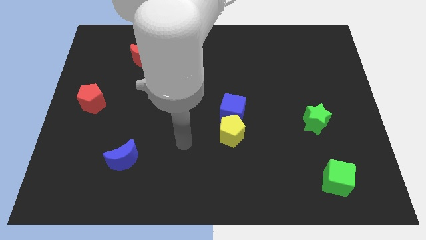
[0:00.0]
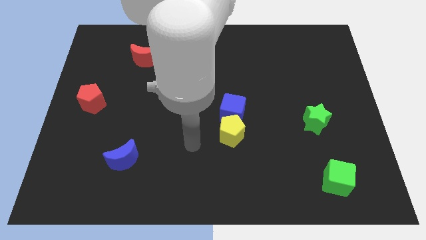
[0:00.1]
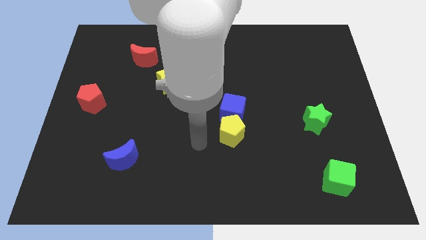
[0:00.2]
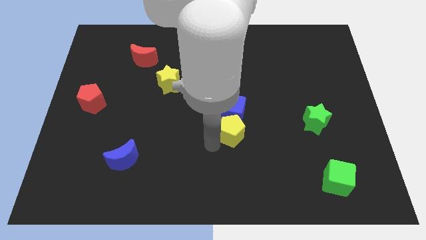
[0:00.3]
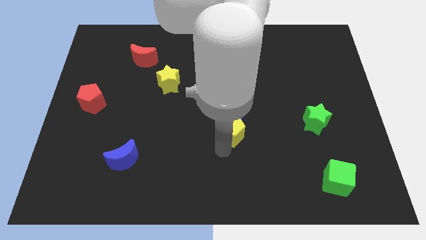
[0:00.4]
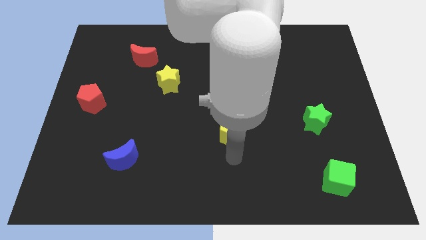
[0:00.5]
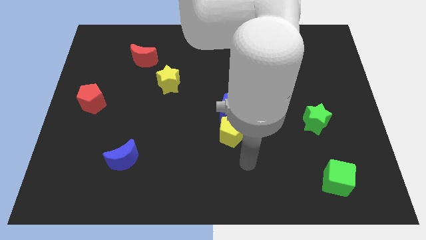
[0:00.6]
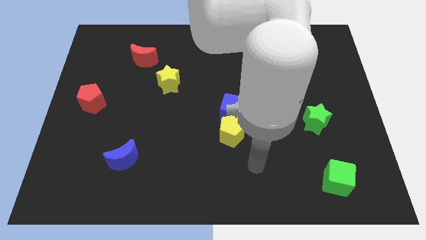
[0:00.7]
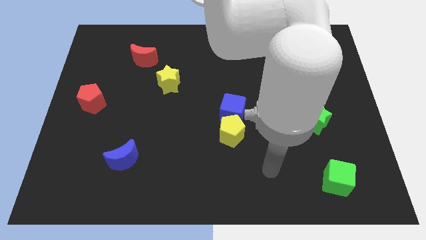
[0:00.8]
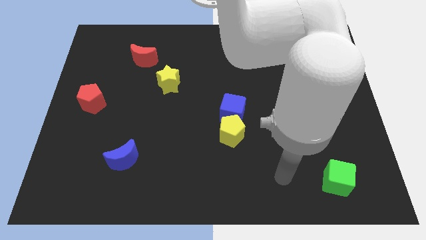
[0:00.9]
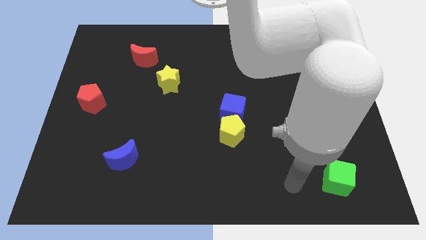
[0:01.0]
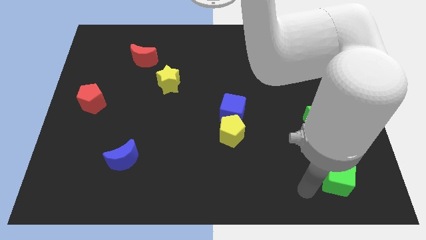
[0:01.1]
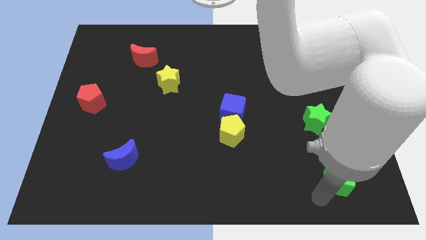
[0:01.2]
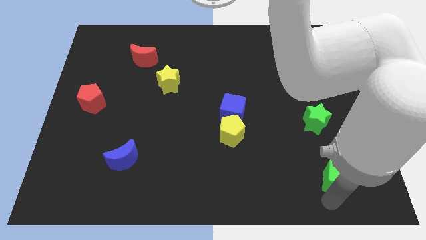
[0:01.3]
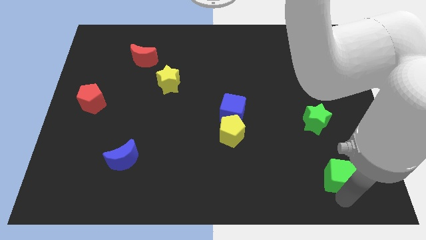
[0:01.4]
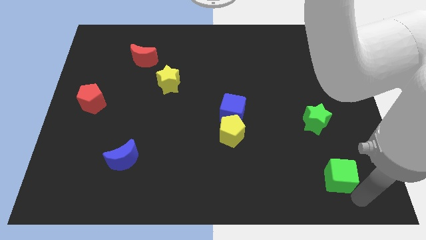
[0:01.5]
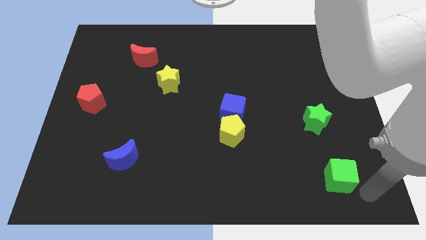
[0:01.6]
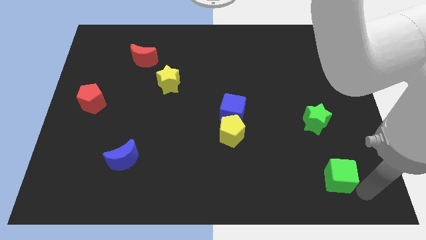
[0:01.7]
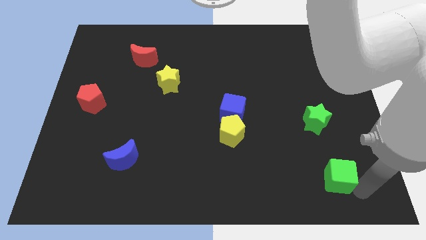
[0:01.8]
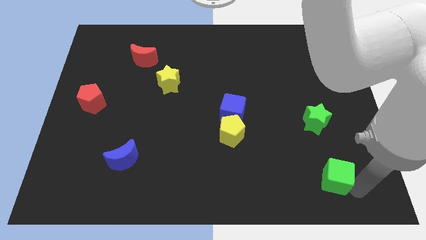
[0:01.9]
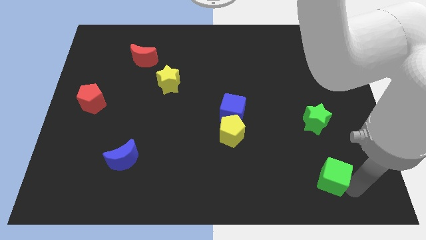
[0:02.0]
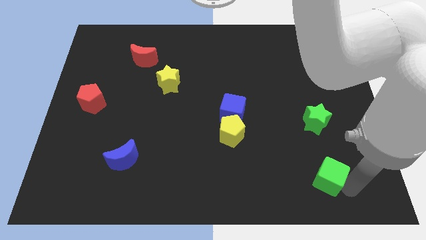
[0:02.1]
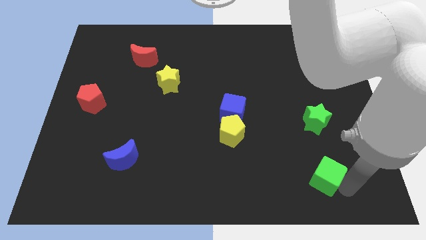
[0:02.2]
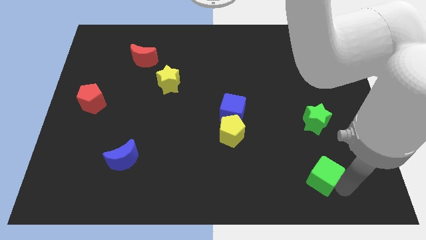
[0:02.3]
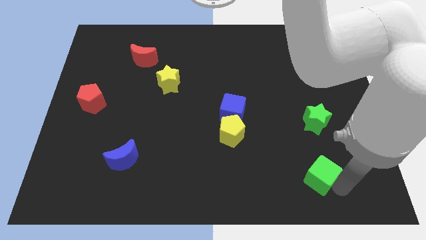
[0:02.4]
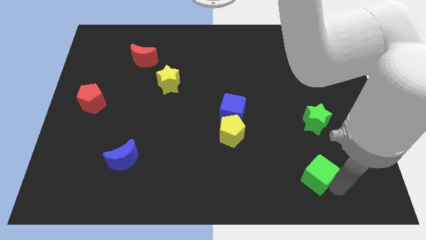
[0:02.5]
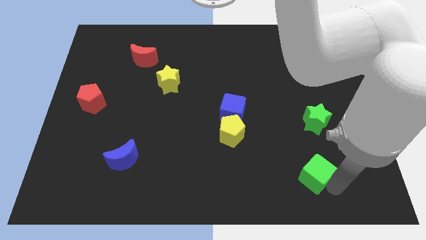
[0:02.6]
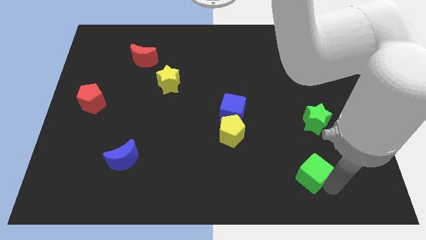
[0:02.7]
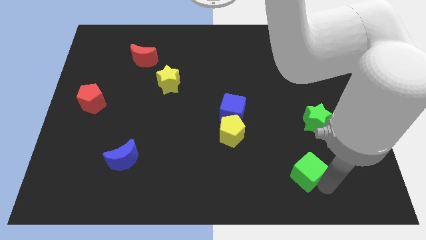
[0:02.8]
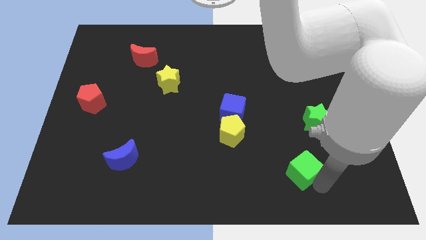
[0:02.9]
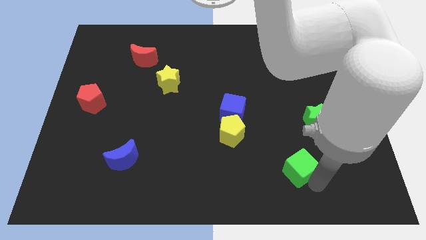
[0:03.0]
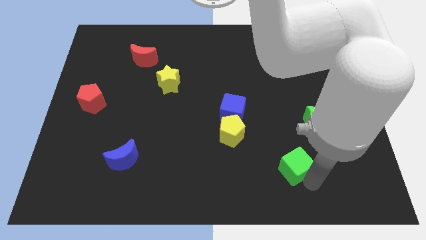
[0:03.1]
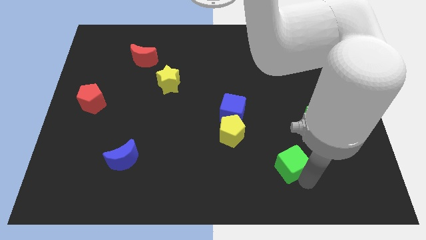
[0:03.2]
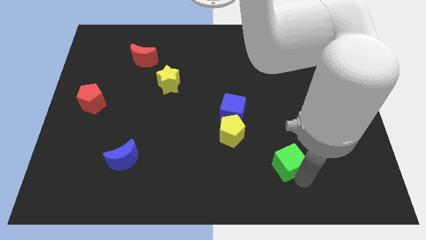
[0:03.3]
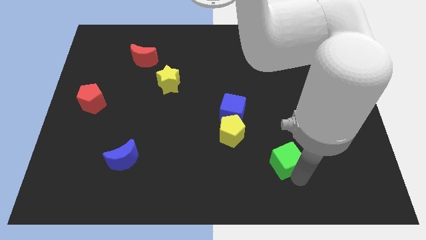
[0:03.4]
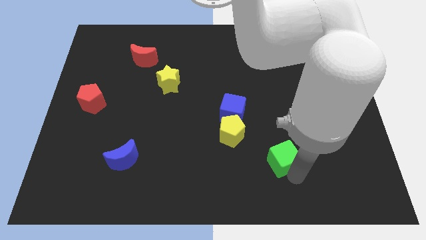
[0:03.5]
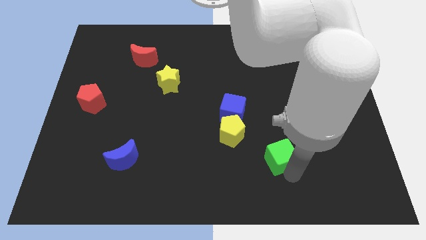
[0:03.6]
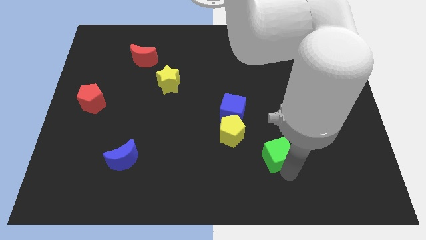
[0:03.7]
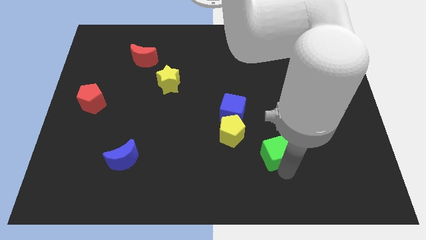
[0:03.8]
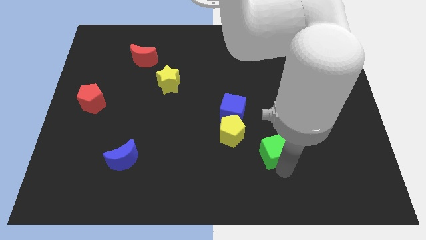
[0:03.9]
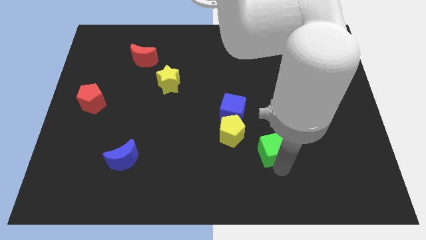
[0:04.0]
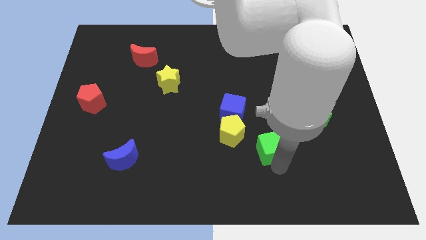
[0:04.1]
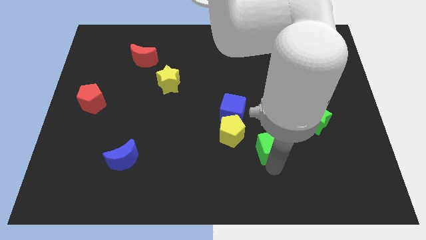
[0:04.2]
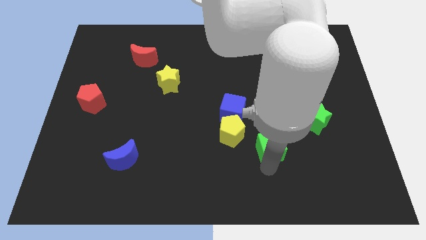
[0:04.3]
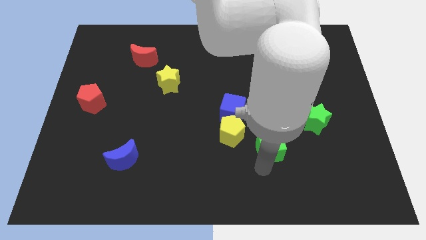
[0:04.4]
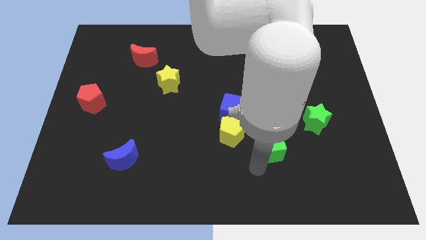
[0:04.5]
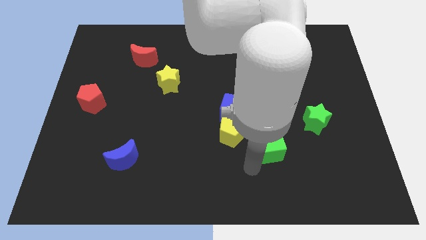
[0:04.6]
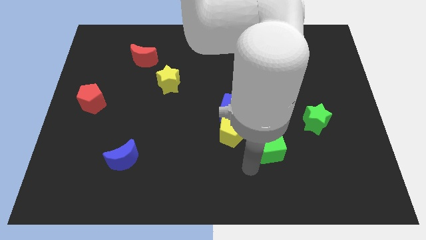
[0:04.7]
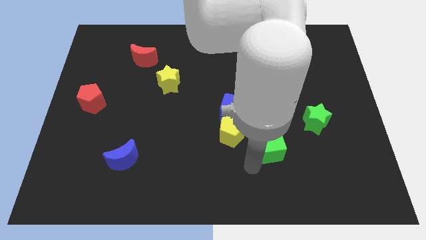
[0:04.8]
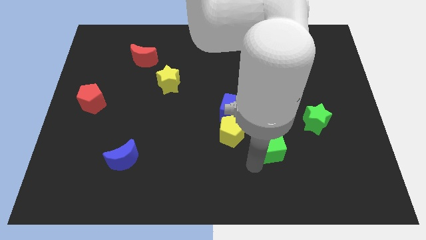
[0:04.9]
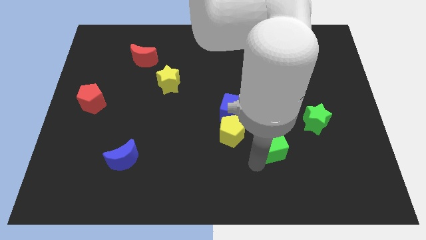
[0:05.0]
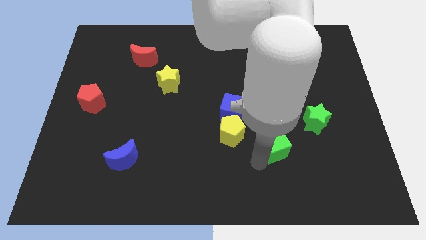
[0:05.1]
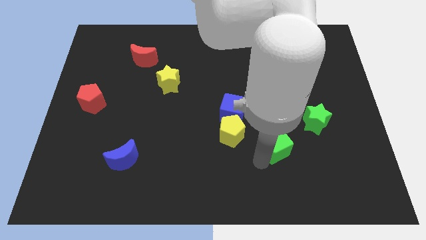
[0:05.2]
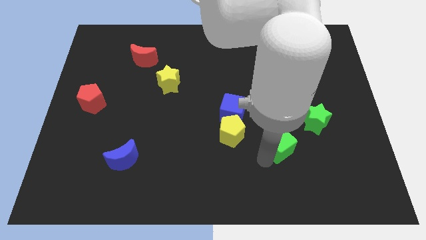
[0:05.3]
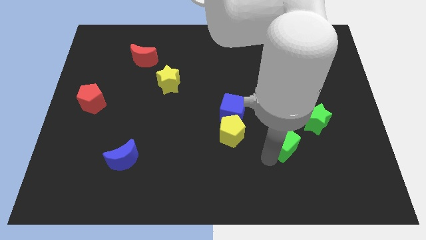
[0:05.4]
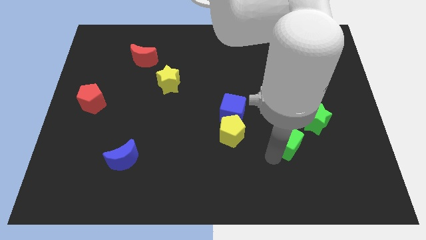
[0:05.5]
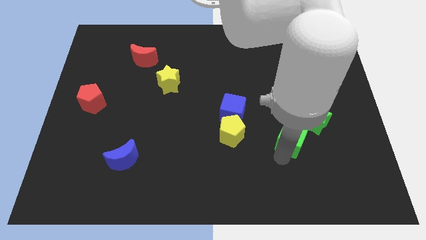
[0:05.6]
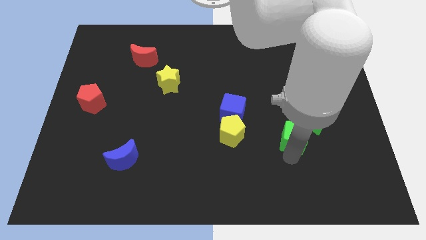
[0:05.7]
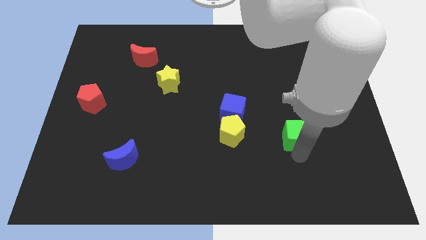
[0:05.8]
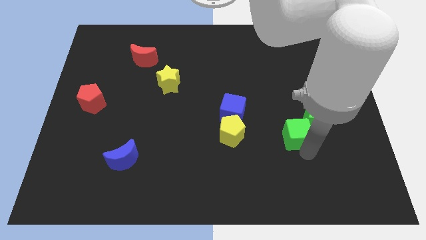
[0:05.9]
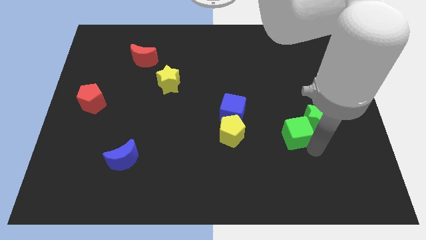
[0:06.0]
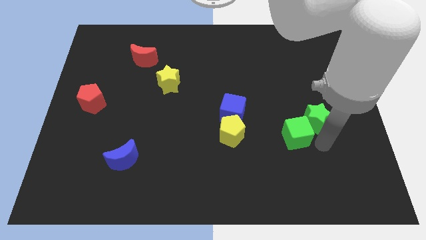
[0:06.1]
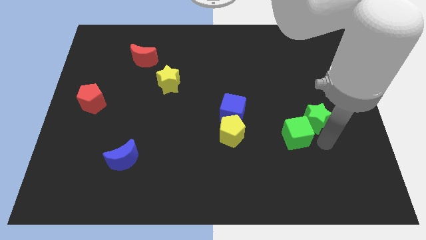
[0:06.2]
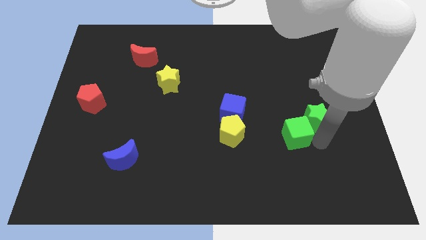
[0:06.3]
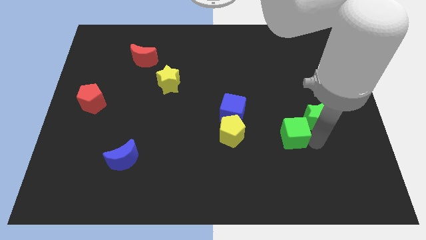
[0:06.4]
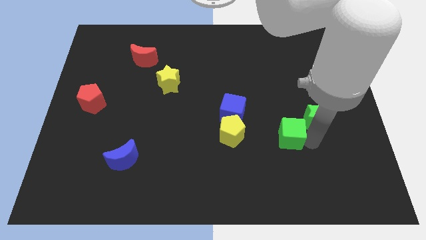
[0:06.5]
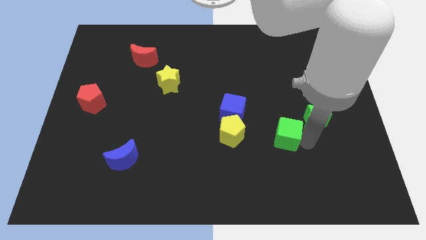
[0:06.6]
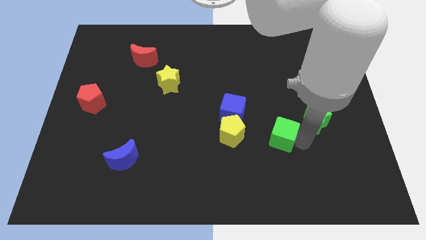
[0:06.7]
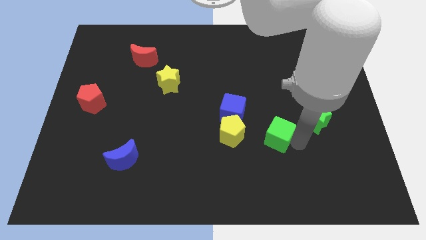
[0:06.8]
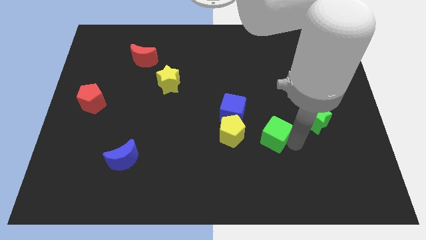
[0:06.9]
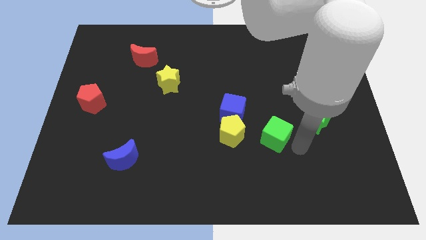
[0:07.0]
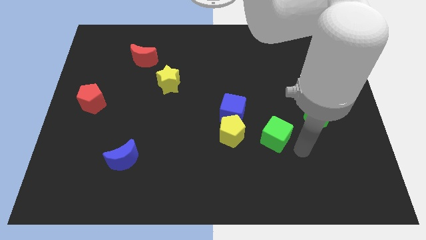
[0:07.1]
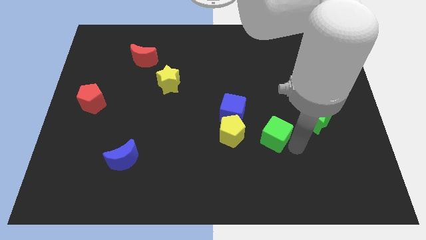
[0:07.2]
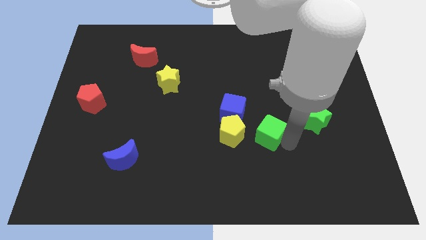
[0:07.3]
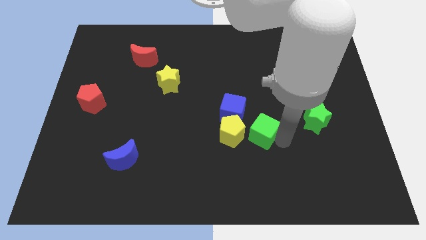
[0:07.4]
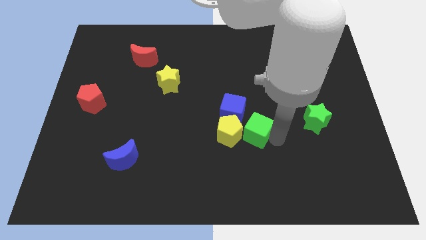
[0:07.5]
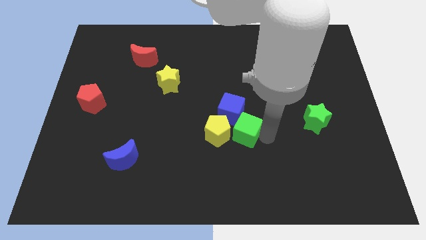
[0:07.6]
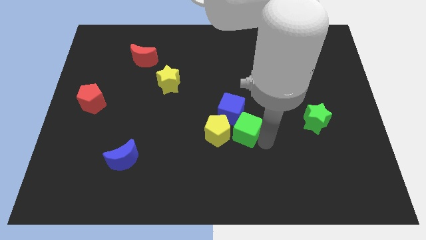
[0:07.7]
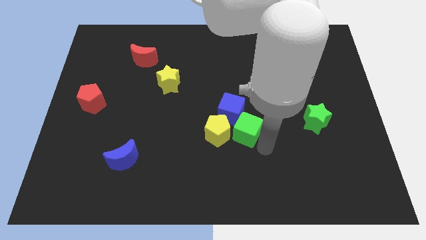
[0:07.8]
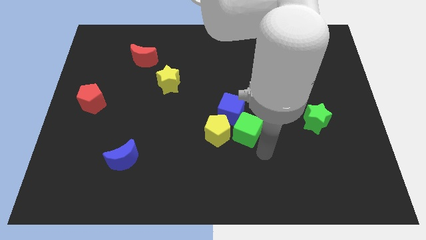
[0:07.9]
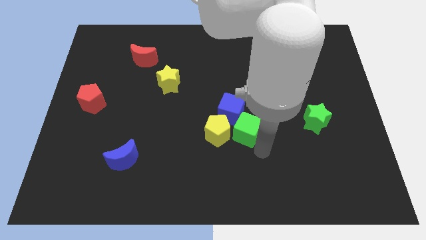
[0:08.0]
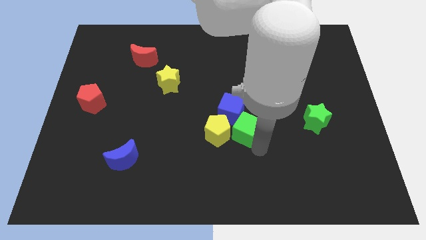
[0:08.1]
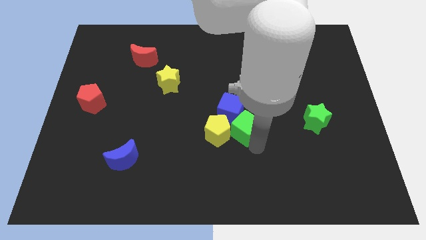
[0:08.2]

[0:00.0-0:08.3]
slide the green cube close to the blue cube
